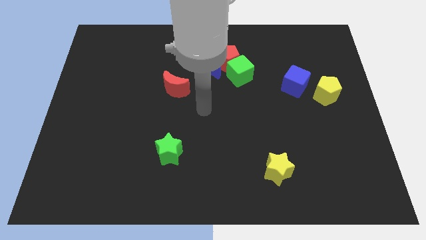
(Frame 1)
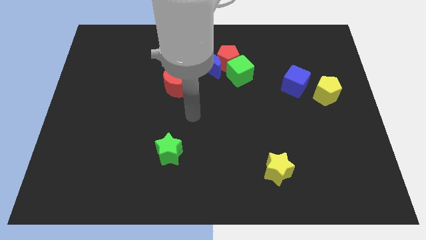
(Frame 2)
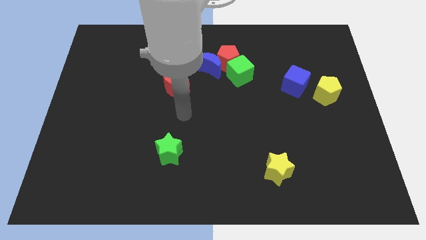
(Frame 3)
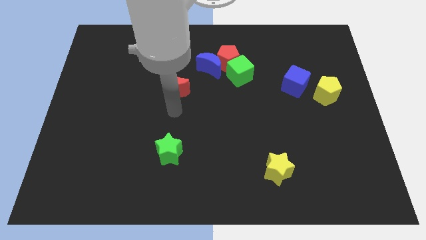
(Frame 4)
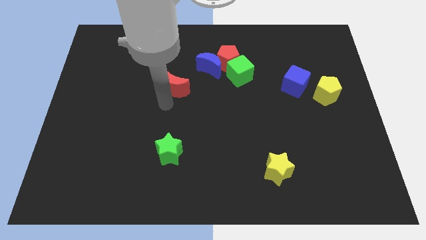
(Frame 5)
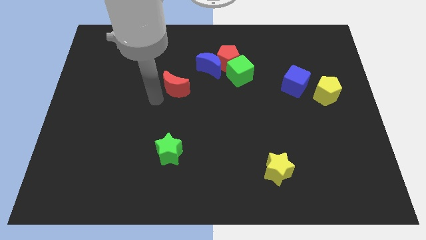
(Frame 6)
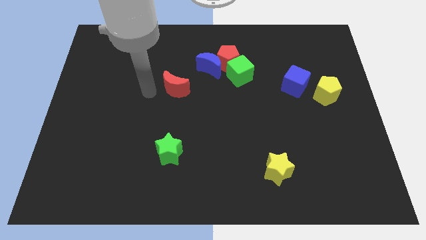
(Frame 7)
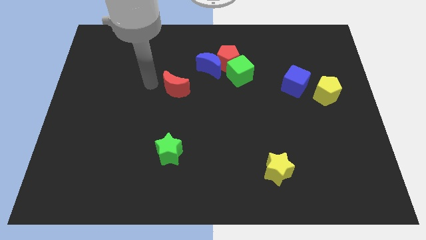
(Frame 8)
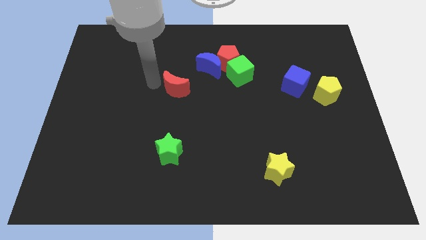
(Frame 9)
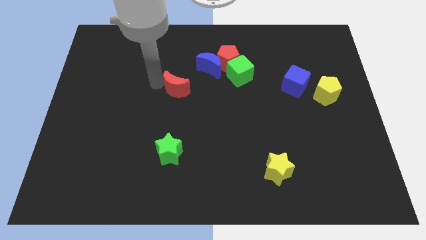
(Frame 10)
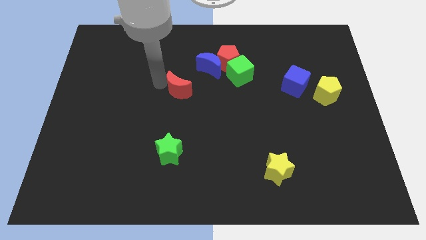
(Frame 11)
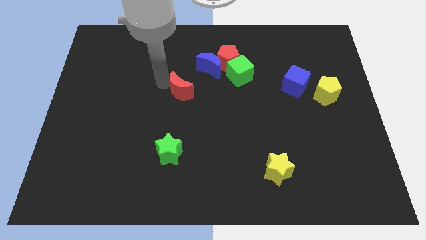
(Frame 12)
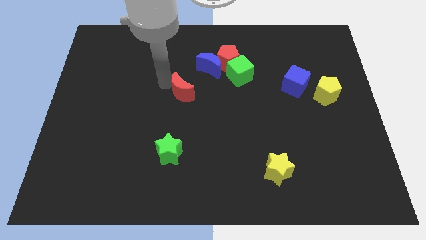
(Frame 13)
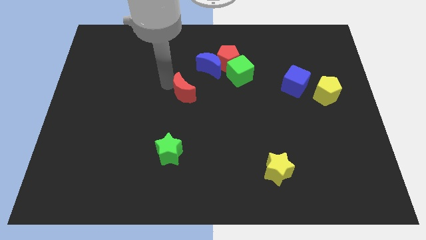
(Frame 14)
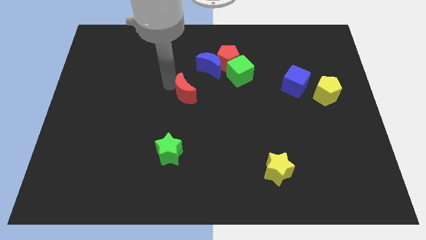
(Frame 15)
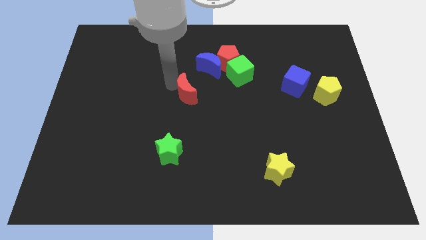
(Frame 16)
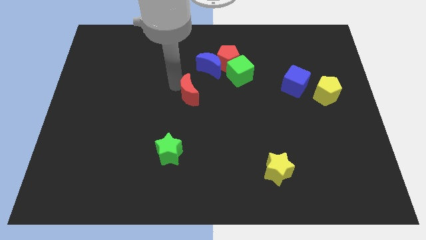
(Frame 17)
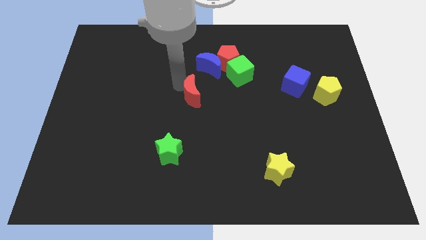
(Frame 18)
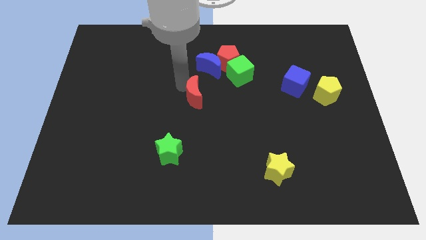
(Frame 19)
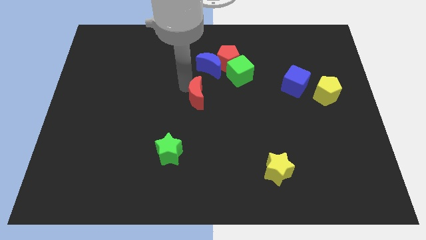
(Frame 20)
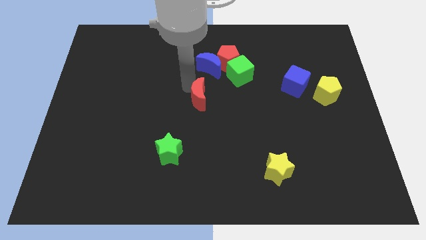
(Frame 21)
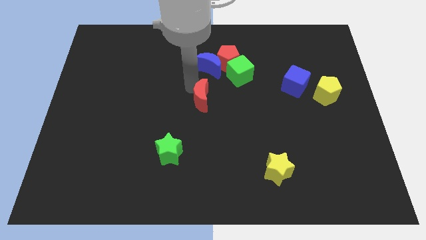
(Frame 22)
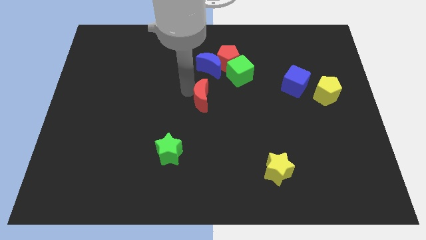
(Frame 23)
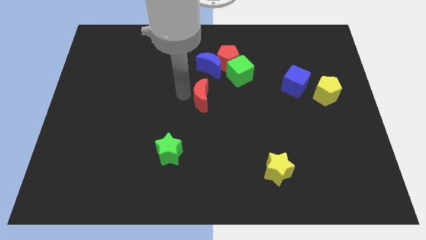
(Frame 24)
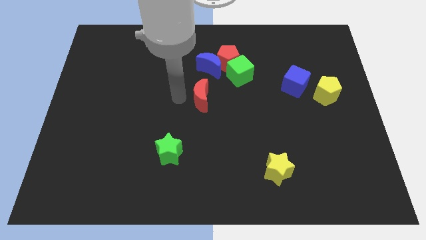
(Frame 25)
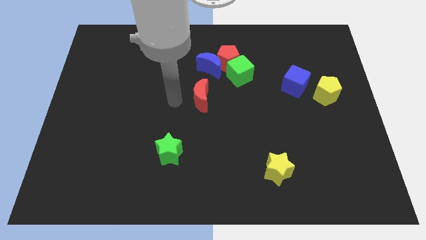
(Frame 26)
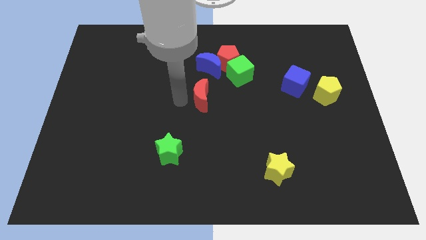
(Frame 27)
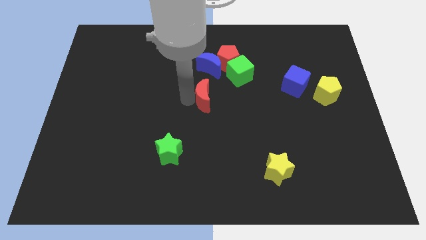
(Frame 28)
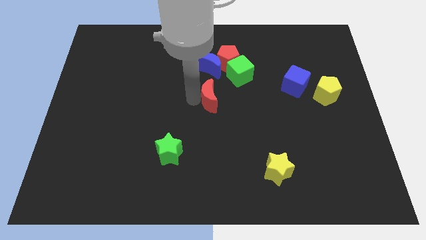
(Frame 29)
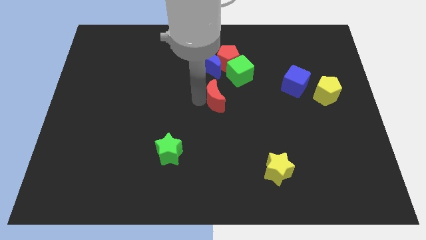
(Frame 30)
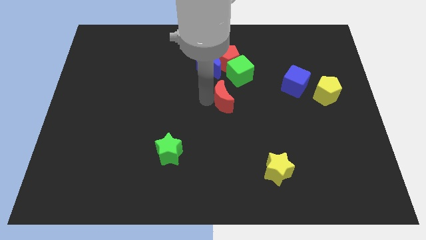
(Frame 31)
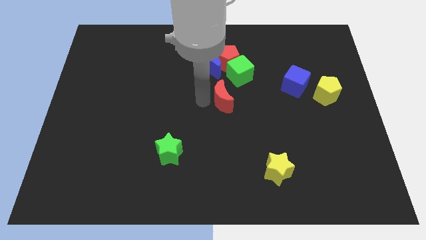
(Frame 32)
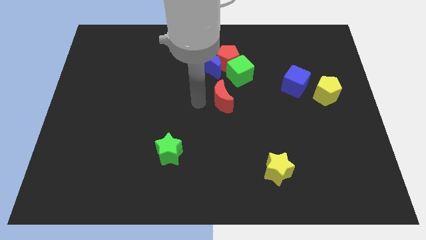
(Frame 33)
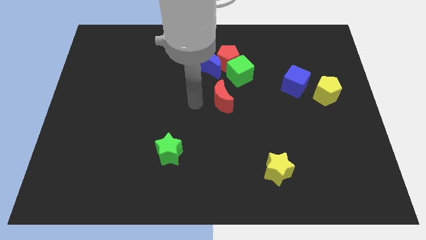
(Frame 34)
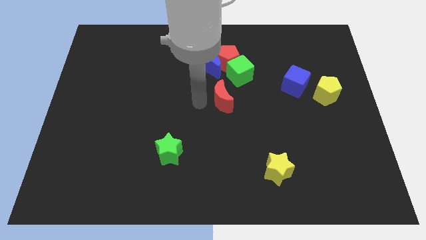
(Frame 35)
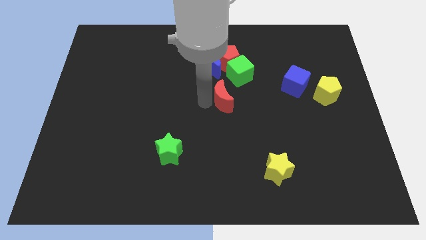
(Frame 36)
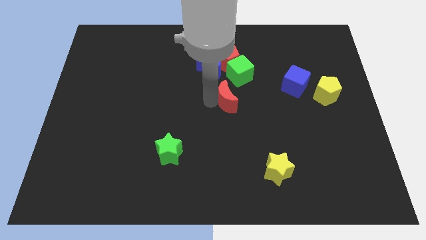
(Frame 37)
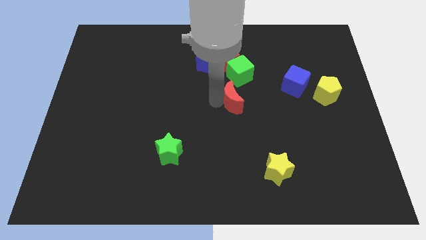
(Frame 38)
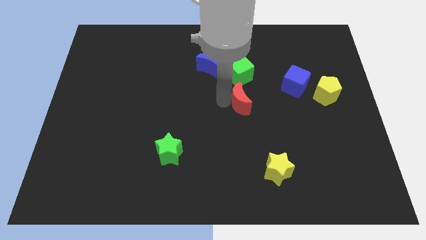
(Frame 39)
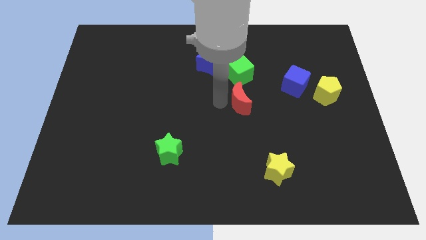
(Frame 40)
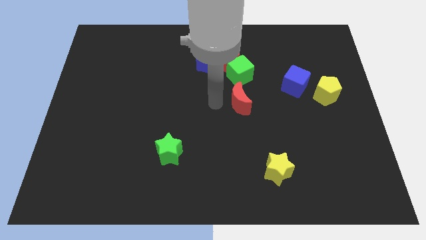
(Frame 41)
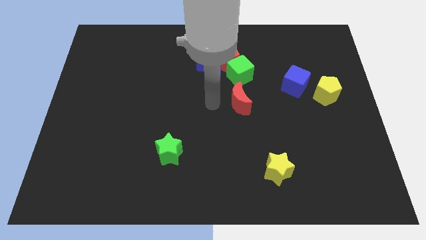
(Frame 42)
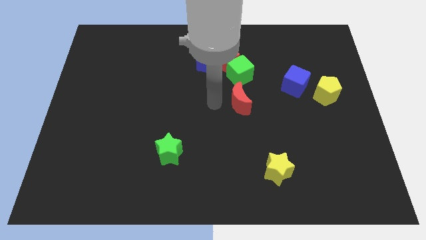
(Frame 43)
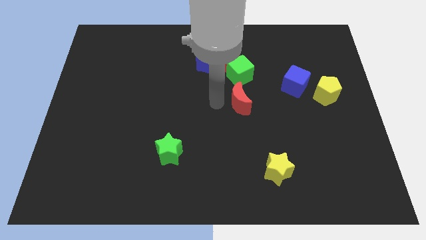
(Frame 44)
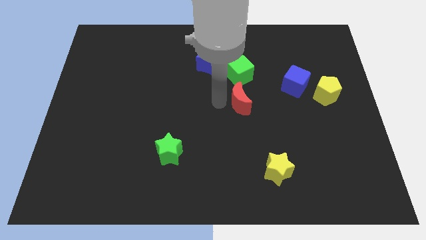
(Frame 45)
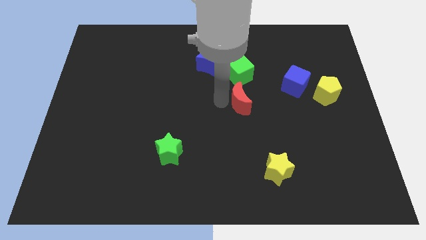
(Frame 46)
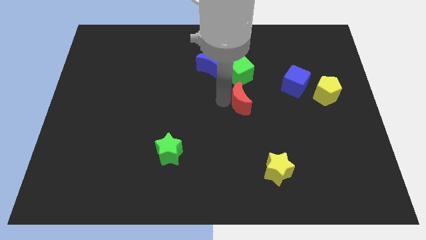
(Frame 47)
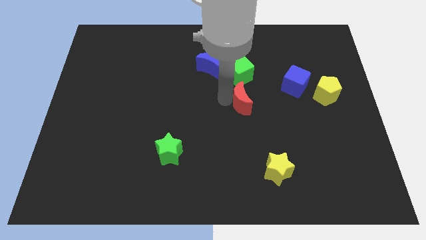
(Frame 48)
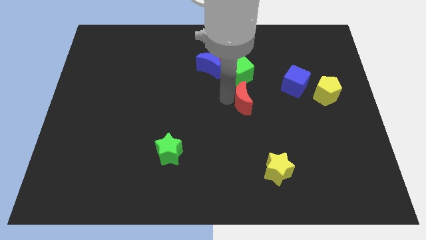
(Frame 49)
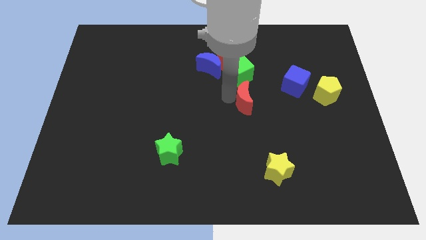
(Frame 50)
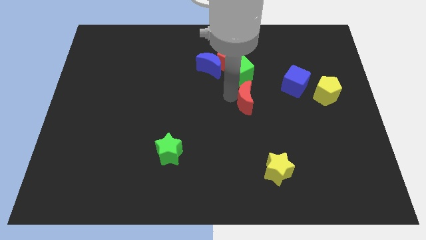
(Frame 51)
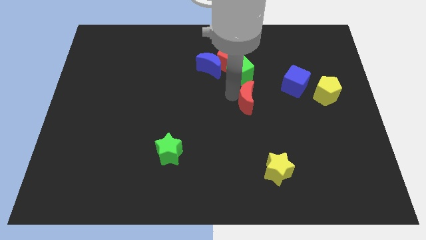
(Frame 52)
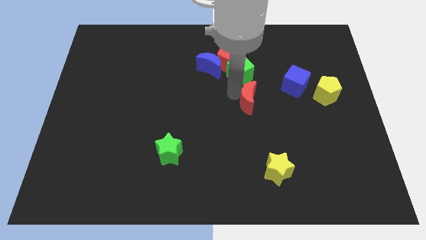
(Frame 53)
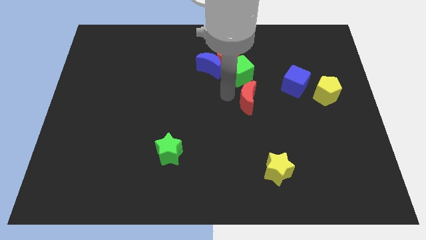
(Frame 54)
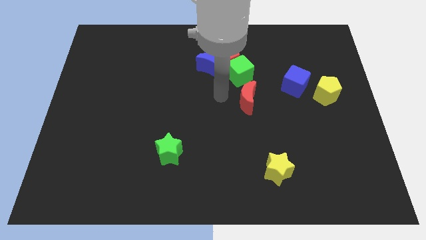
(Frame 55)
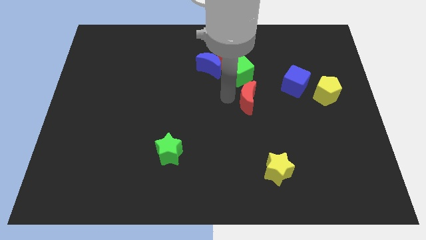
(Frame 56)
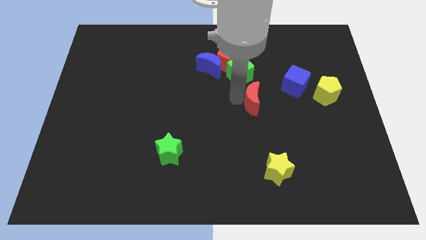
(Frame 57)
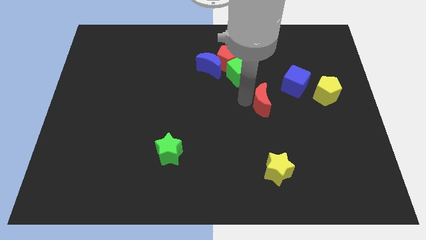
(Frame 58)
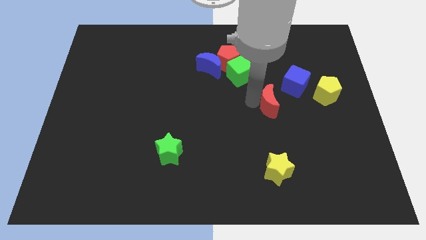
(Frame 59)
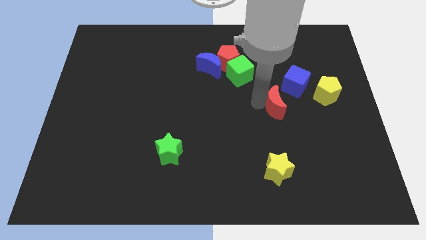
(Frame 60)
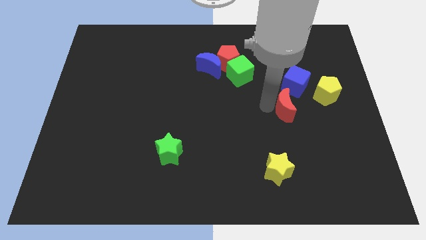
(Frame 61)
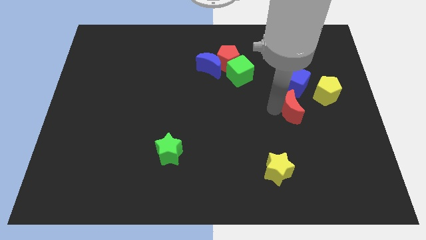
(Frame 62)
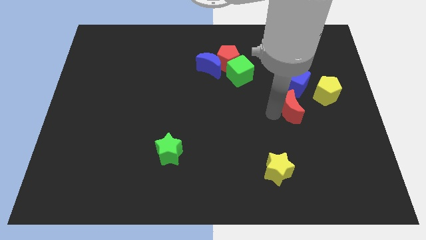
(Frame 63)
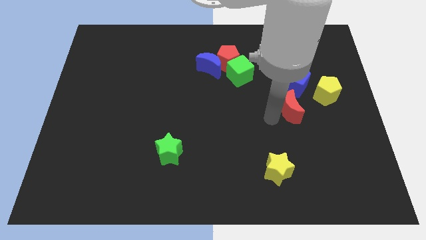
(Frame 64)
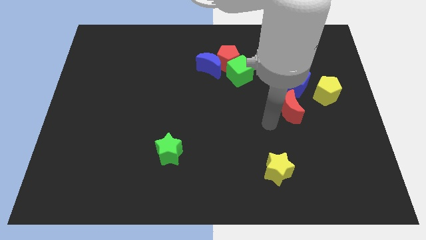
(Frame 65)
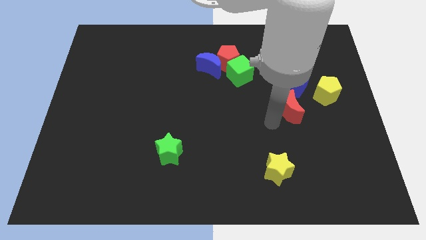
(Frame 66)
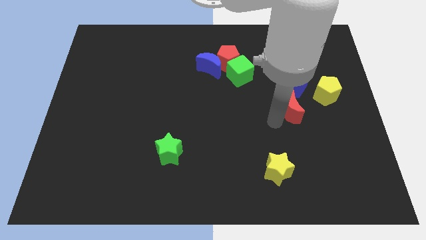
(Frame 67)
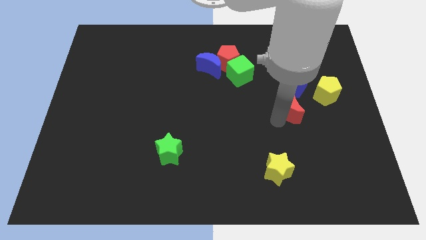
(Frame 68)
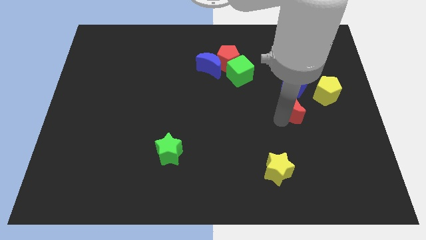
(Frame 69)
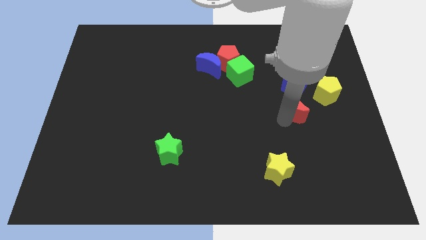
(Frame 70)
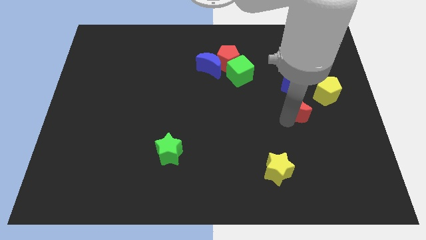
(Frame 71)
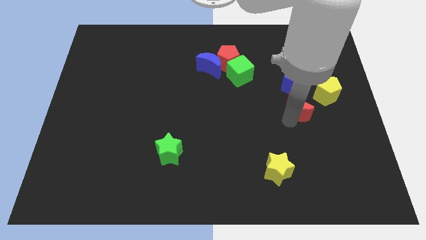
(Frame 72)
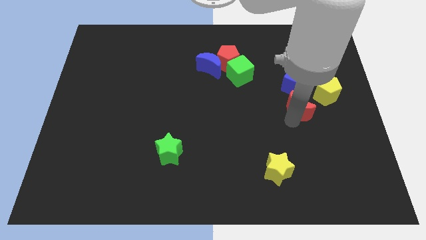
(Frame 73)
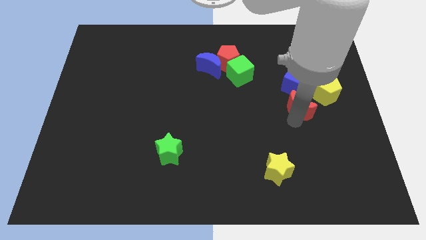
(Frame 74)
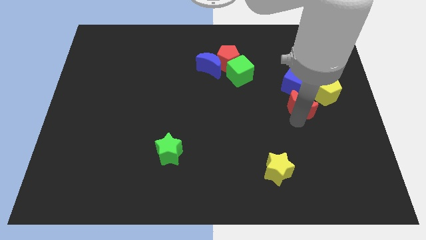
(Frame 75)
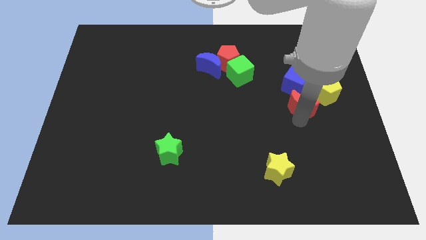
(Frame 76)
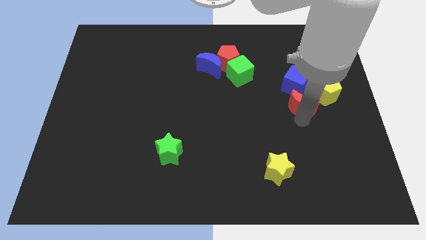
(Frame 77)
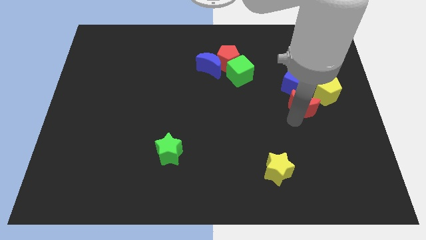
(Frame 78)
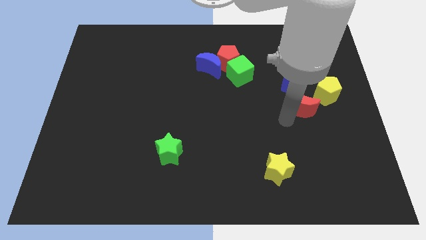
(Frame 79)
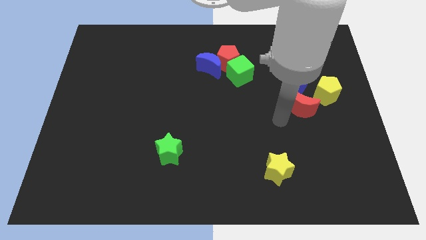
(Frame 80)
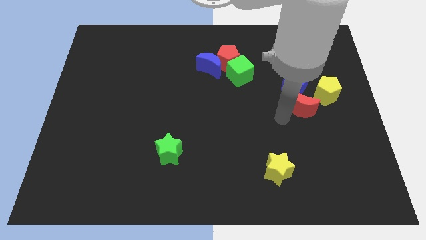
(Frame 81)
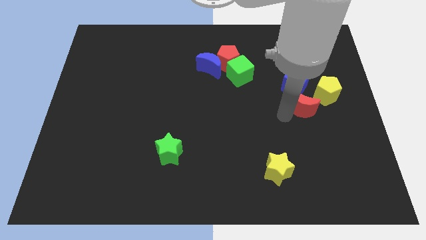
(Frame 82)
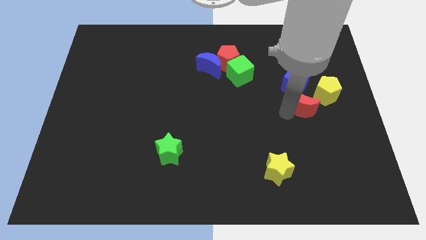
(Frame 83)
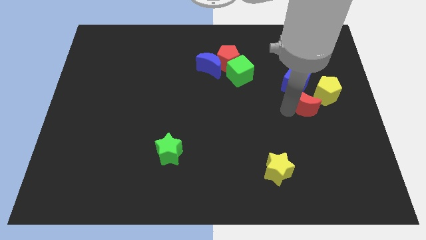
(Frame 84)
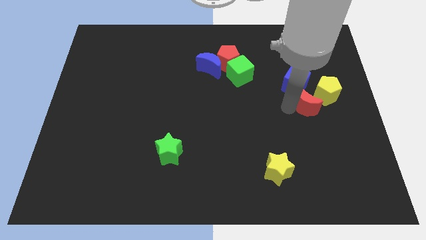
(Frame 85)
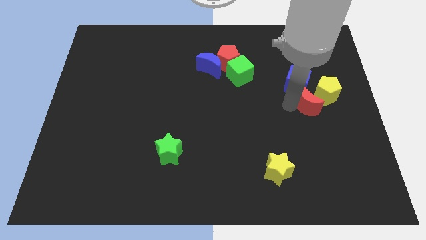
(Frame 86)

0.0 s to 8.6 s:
move the red moon close to the yellow pentagon
